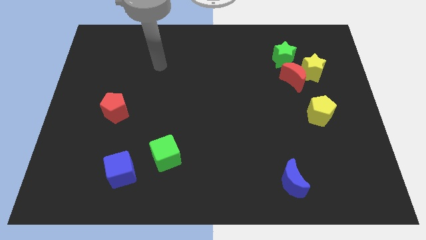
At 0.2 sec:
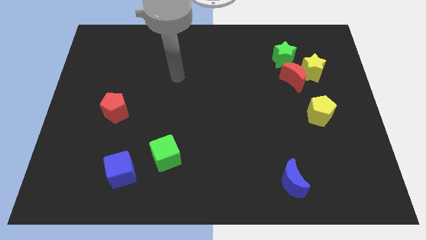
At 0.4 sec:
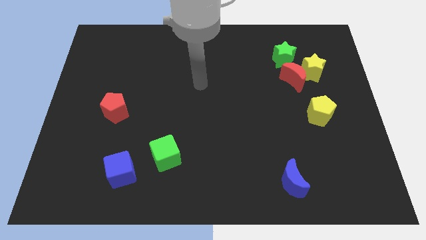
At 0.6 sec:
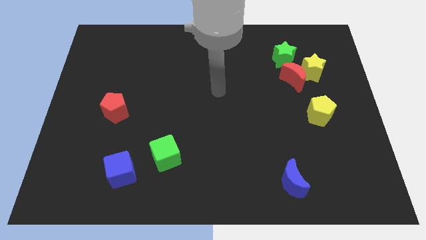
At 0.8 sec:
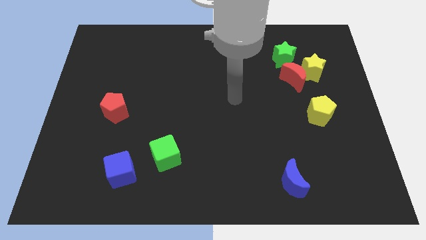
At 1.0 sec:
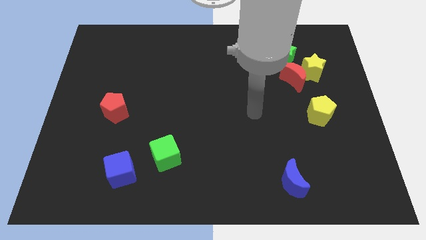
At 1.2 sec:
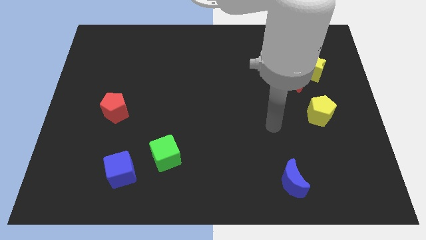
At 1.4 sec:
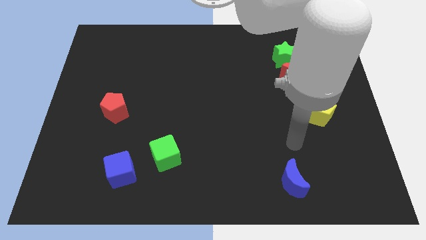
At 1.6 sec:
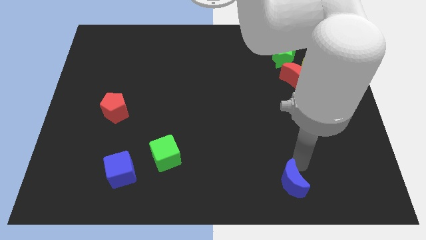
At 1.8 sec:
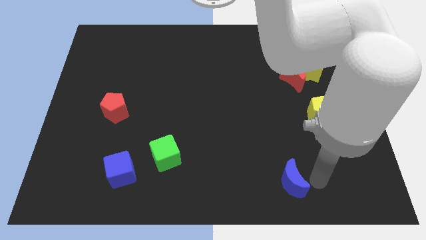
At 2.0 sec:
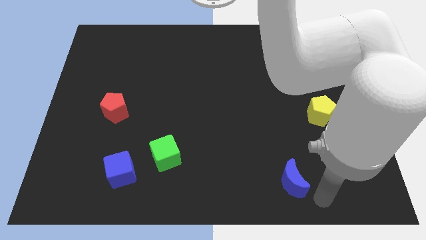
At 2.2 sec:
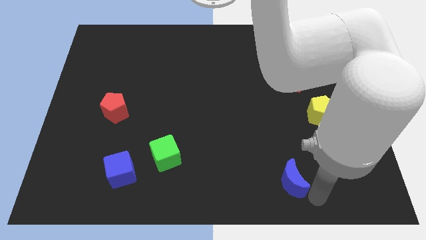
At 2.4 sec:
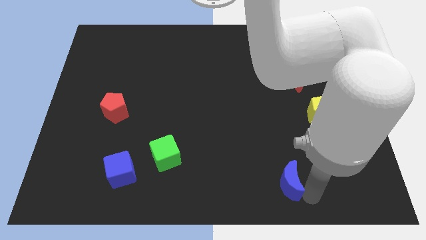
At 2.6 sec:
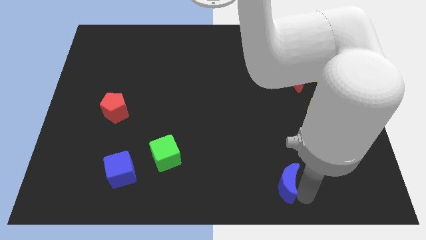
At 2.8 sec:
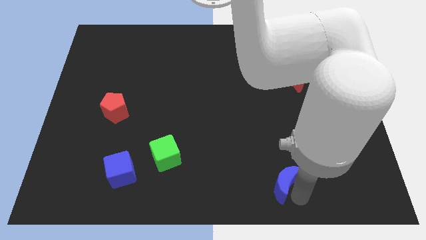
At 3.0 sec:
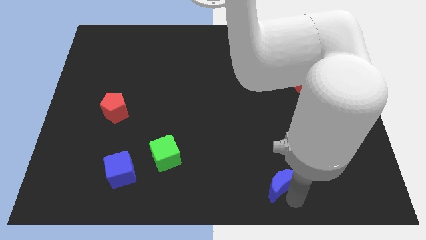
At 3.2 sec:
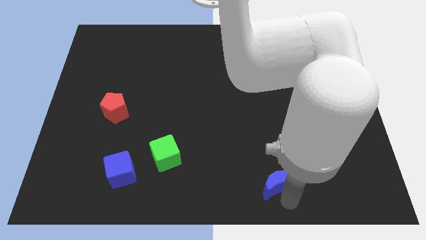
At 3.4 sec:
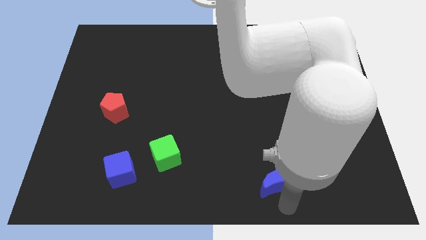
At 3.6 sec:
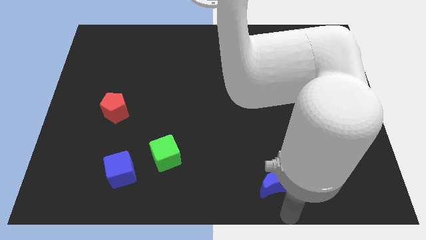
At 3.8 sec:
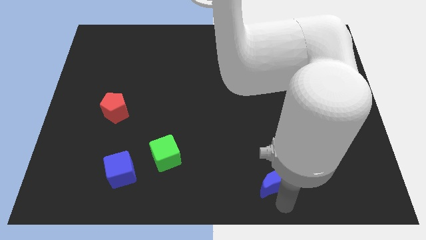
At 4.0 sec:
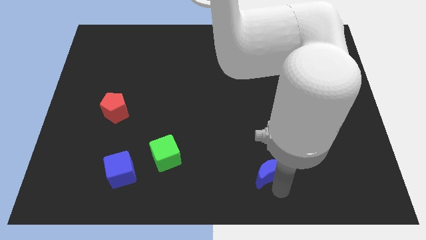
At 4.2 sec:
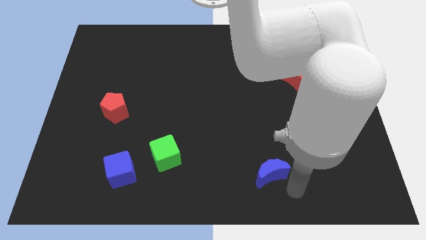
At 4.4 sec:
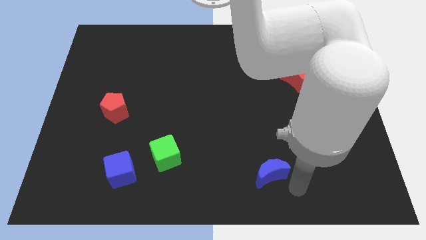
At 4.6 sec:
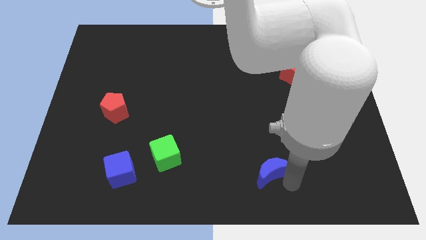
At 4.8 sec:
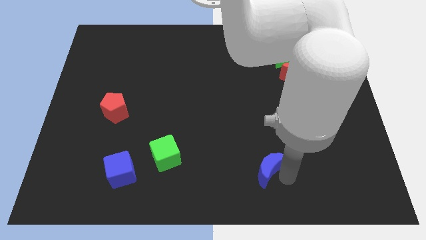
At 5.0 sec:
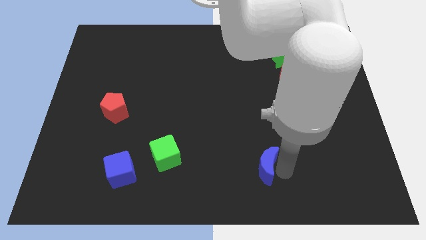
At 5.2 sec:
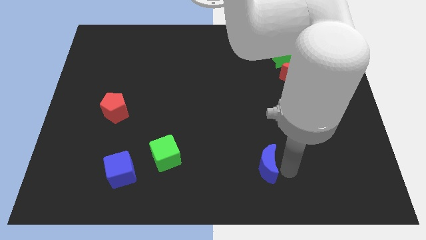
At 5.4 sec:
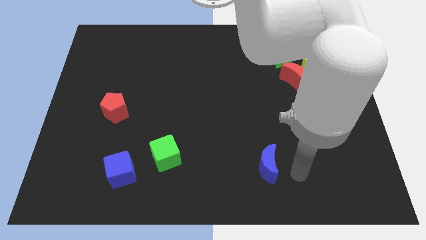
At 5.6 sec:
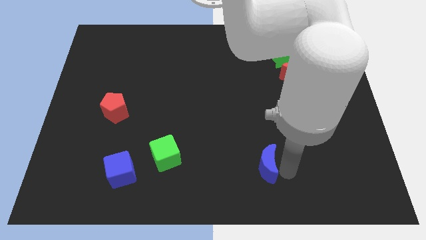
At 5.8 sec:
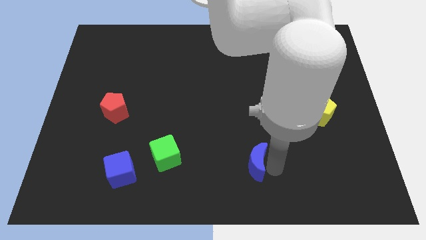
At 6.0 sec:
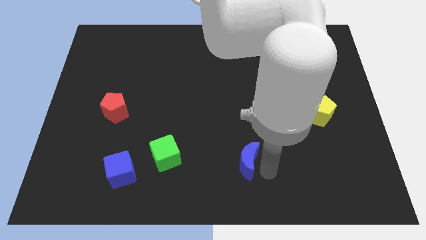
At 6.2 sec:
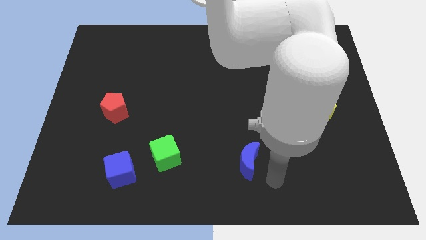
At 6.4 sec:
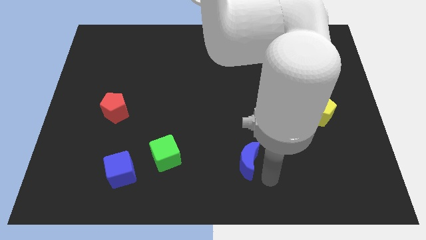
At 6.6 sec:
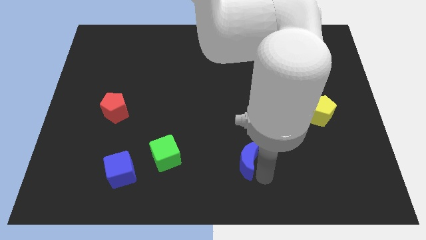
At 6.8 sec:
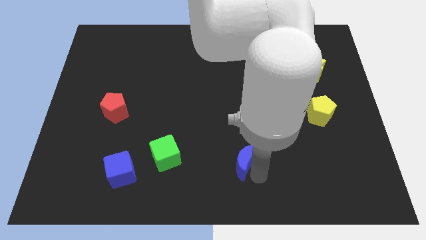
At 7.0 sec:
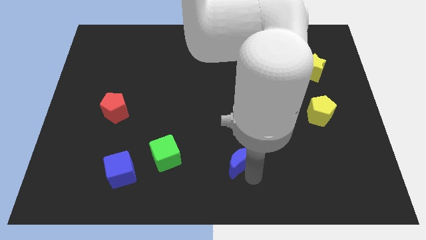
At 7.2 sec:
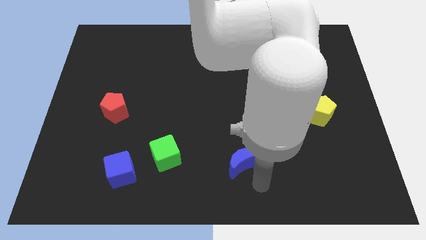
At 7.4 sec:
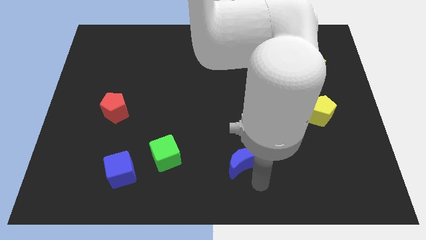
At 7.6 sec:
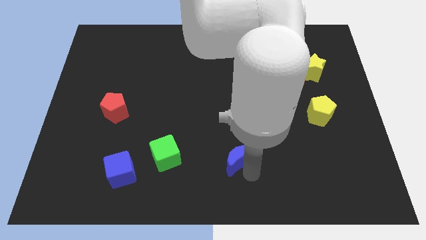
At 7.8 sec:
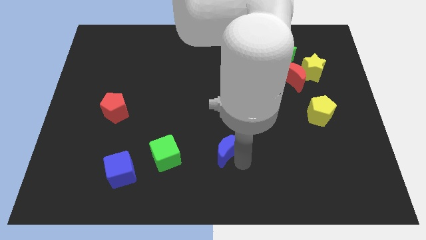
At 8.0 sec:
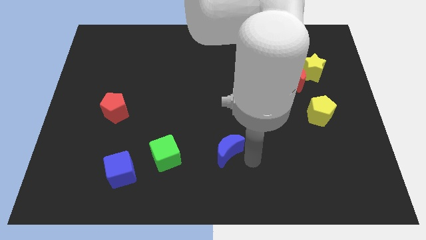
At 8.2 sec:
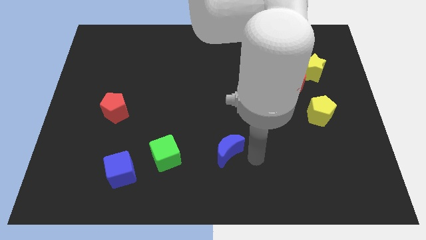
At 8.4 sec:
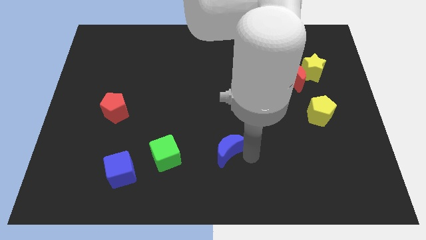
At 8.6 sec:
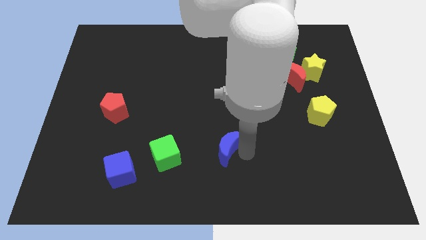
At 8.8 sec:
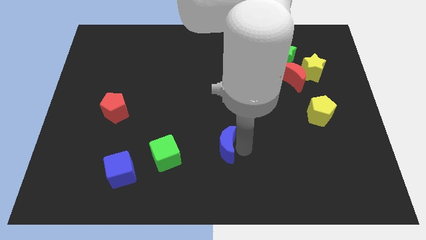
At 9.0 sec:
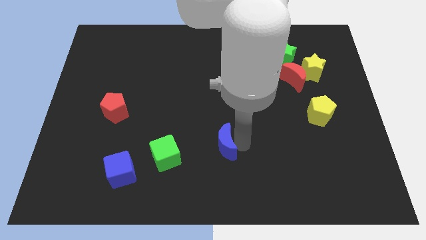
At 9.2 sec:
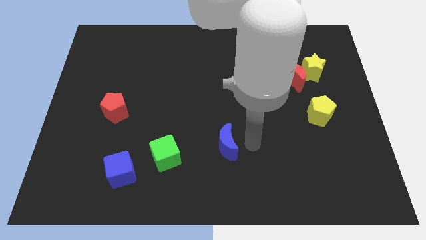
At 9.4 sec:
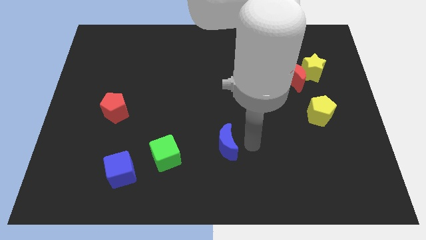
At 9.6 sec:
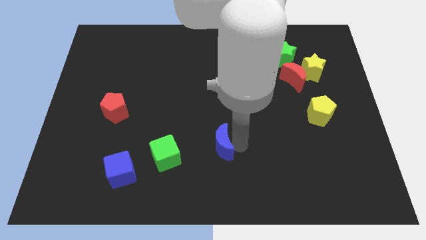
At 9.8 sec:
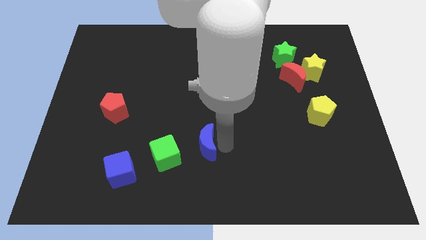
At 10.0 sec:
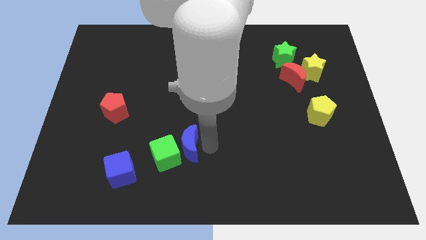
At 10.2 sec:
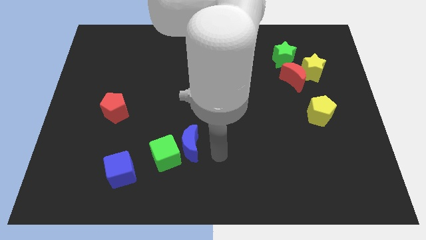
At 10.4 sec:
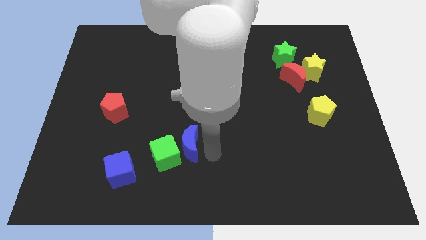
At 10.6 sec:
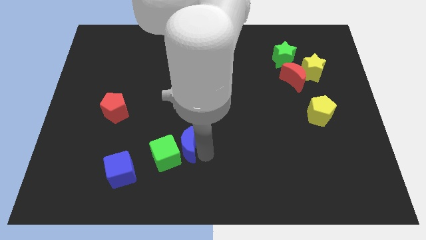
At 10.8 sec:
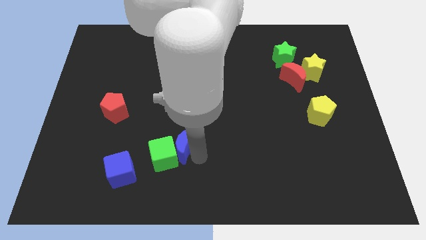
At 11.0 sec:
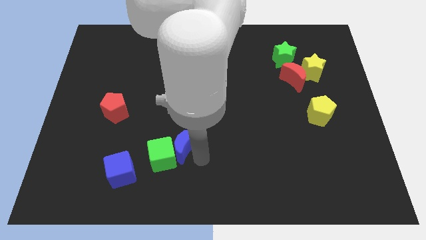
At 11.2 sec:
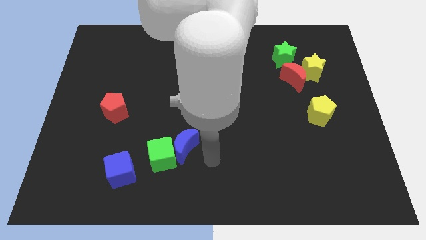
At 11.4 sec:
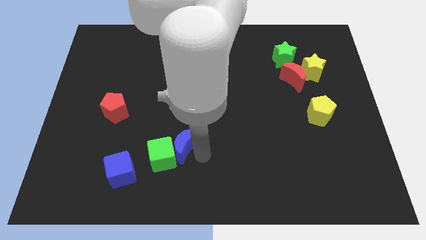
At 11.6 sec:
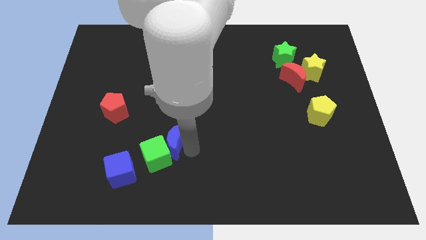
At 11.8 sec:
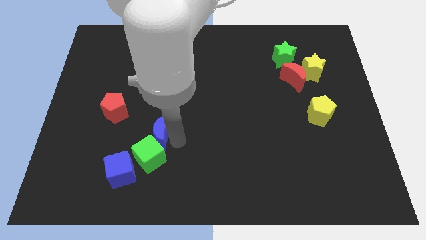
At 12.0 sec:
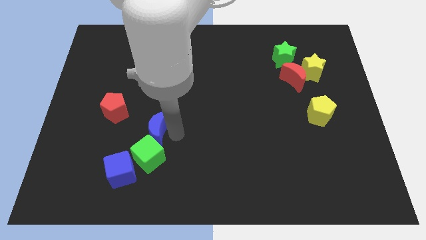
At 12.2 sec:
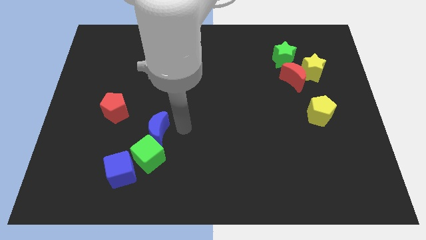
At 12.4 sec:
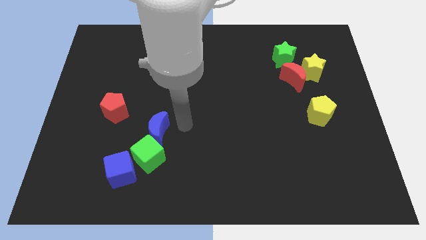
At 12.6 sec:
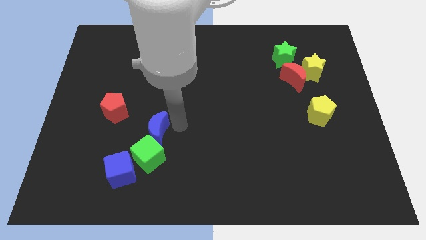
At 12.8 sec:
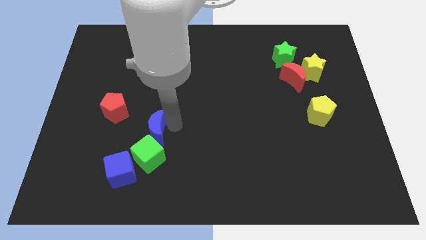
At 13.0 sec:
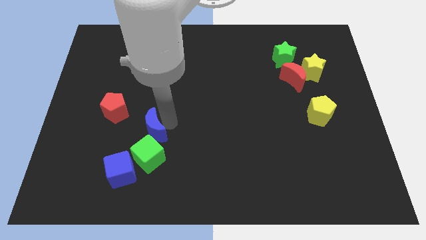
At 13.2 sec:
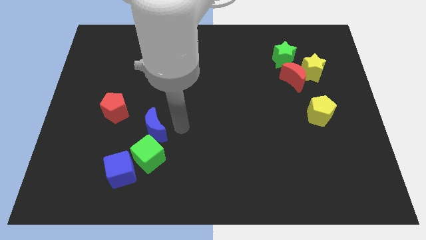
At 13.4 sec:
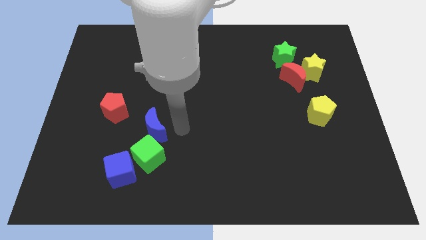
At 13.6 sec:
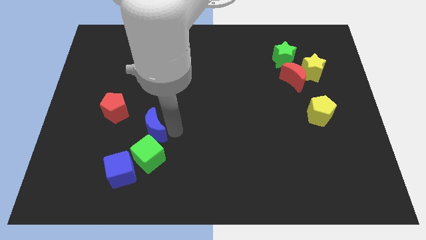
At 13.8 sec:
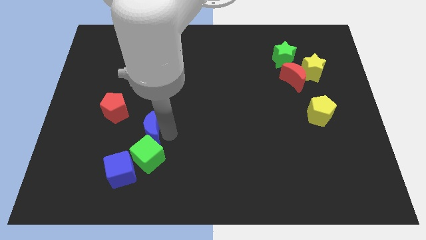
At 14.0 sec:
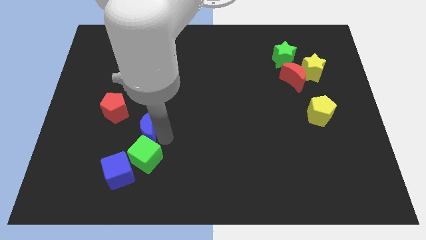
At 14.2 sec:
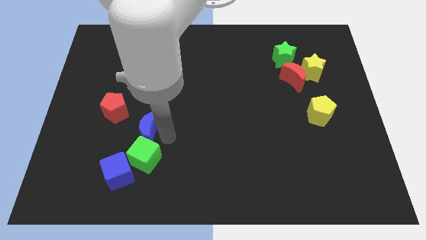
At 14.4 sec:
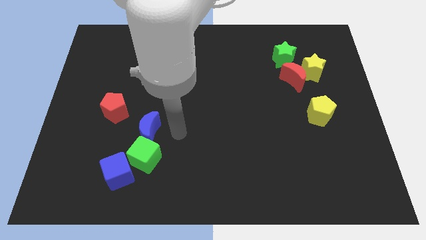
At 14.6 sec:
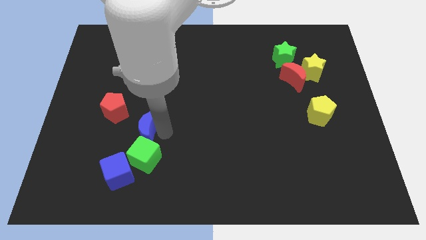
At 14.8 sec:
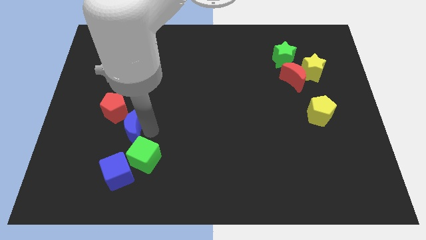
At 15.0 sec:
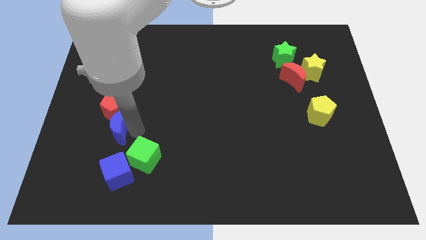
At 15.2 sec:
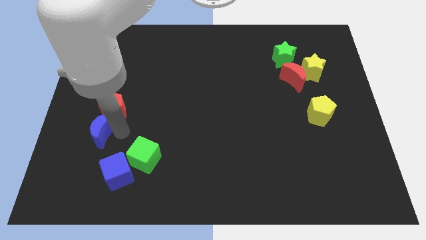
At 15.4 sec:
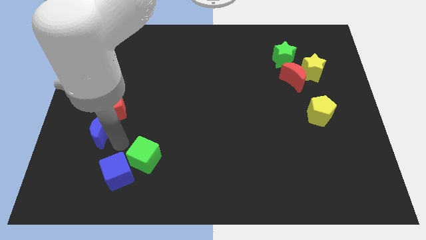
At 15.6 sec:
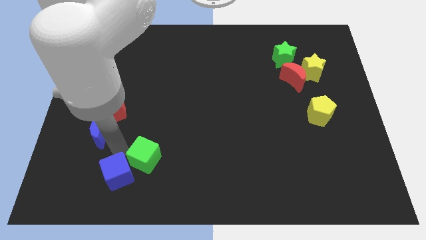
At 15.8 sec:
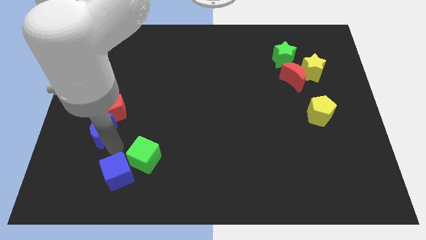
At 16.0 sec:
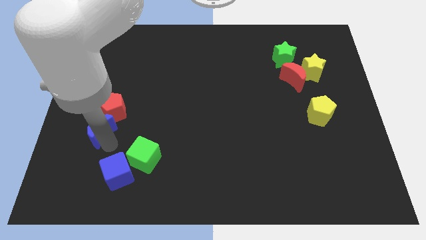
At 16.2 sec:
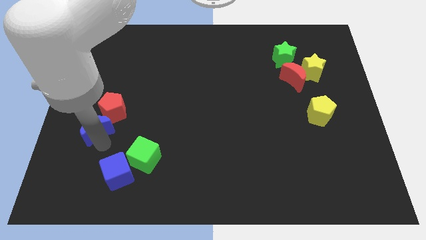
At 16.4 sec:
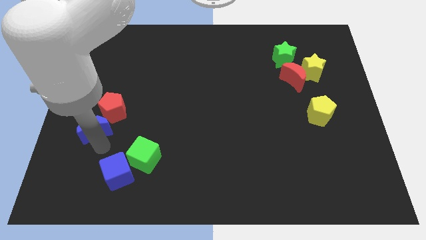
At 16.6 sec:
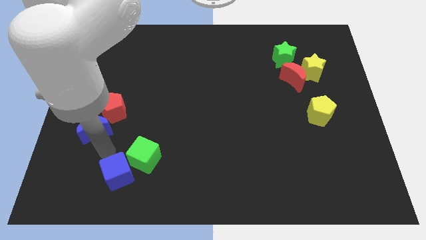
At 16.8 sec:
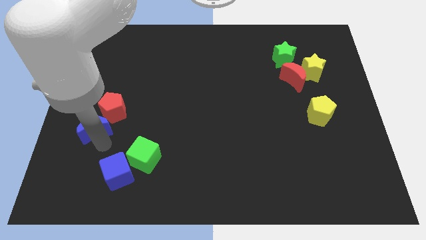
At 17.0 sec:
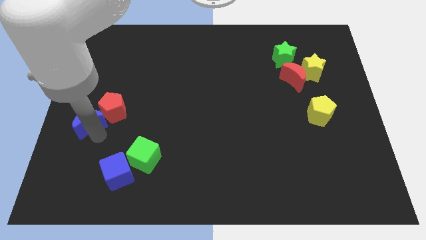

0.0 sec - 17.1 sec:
push the blue moon to the left side
